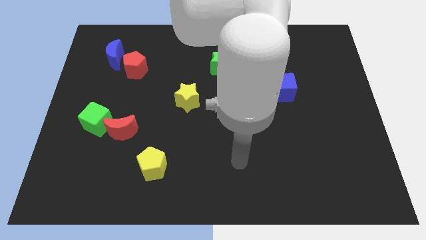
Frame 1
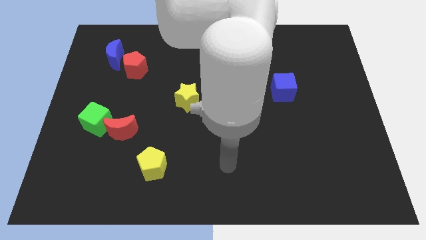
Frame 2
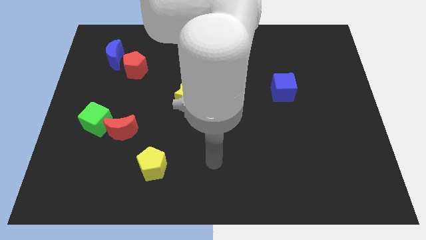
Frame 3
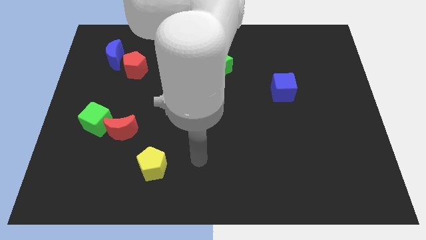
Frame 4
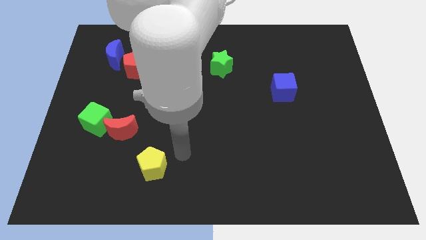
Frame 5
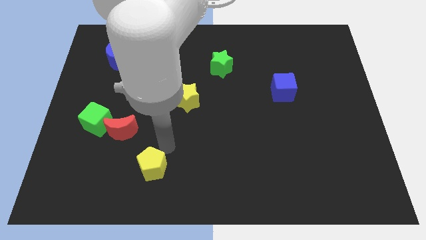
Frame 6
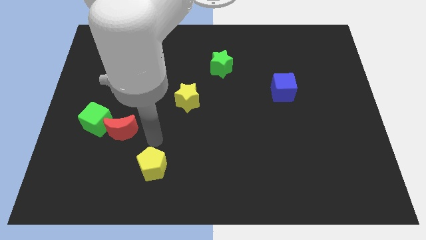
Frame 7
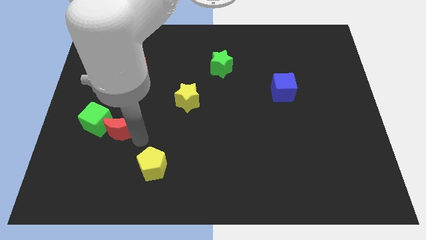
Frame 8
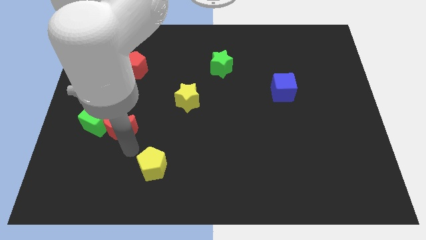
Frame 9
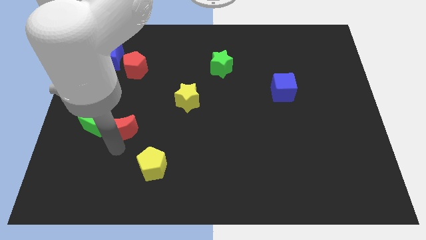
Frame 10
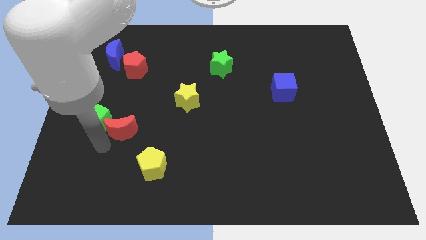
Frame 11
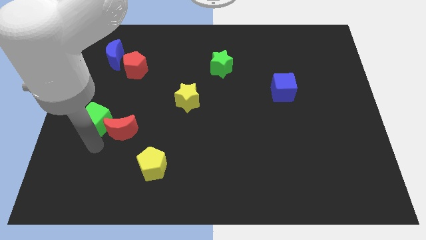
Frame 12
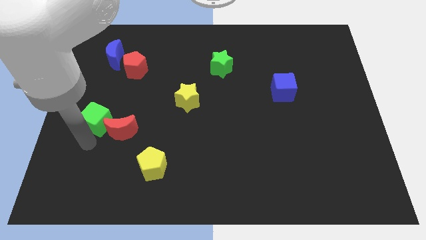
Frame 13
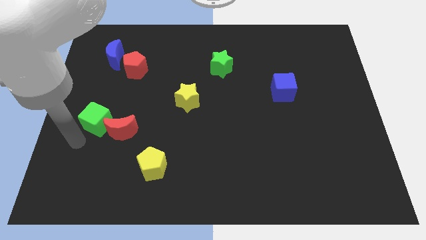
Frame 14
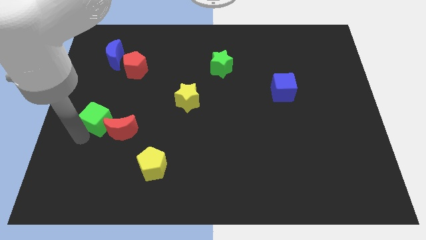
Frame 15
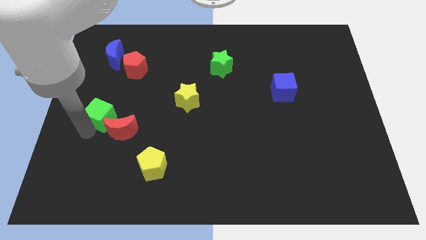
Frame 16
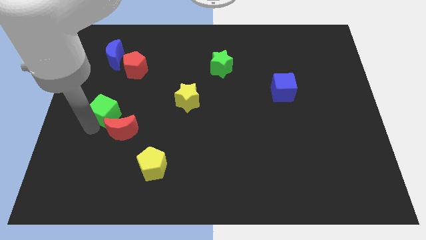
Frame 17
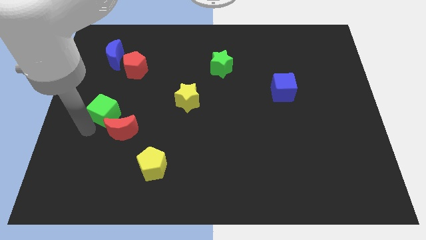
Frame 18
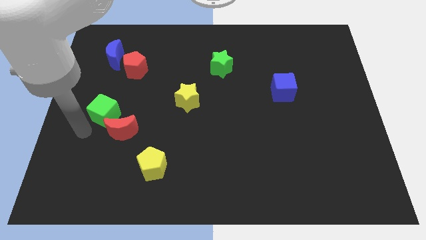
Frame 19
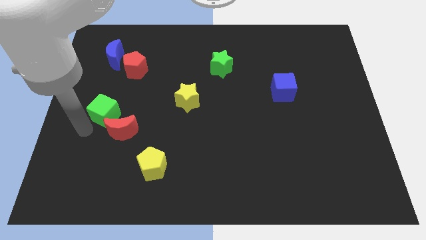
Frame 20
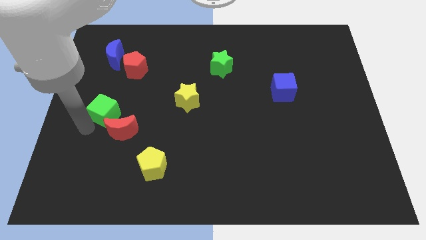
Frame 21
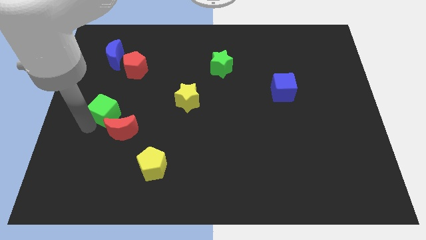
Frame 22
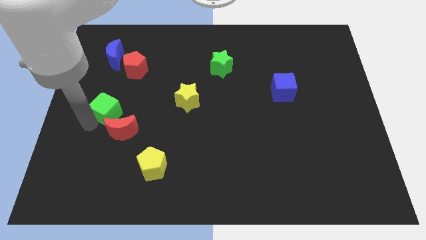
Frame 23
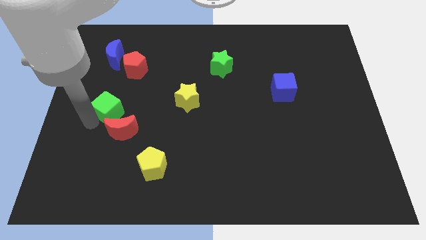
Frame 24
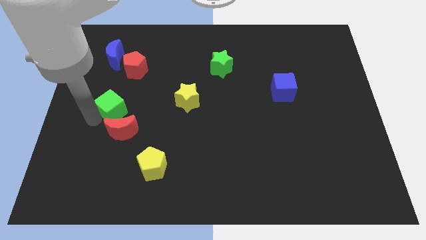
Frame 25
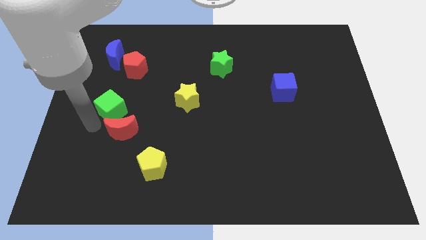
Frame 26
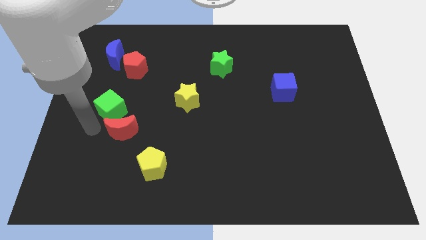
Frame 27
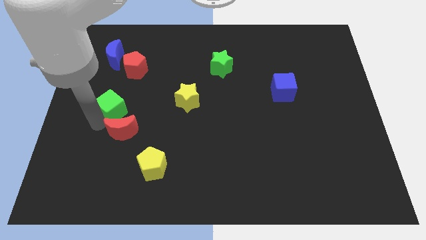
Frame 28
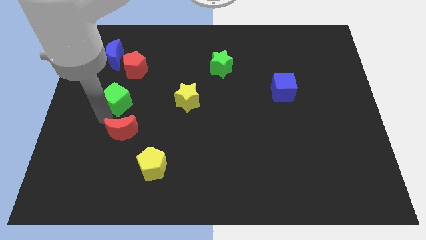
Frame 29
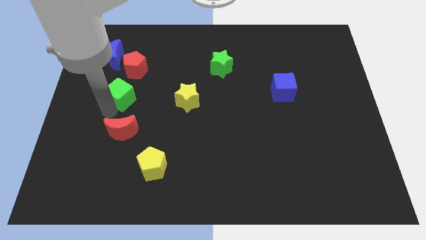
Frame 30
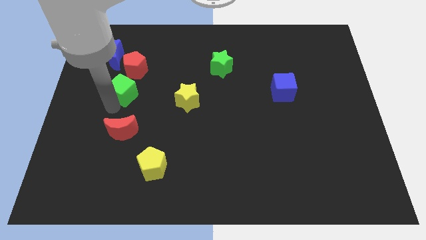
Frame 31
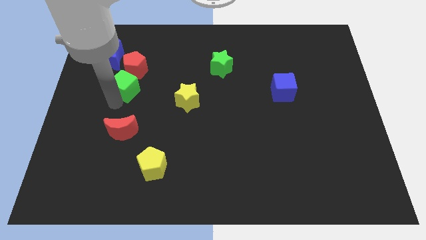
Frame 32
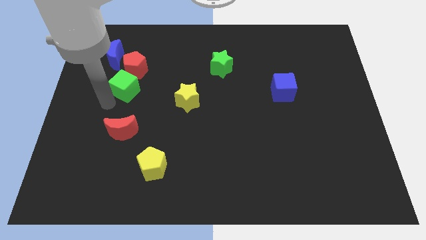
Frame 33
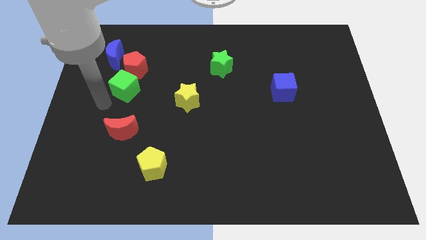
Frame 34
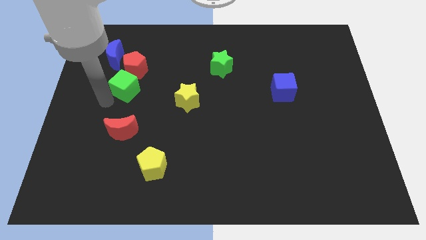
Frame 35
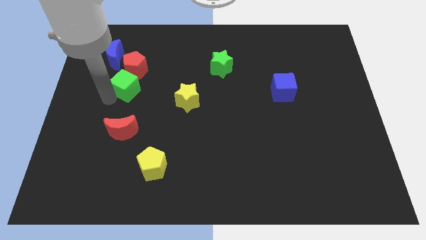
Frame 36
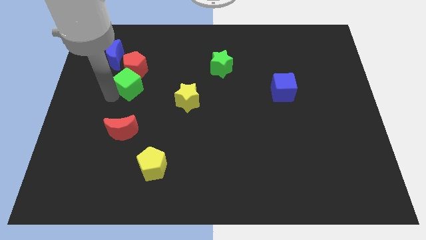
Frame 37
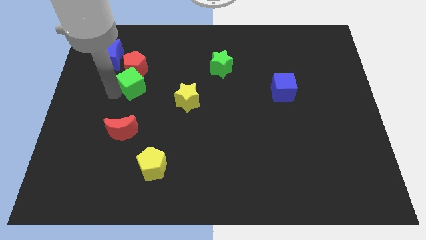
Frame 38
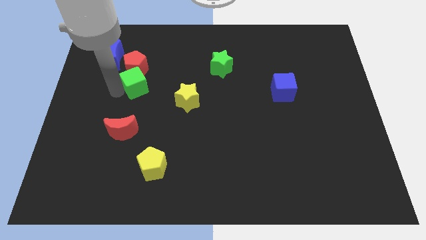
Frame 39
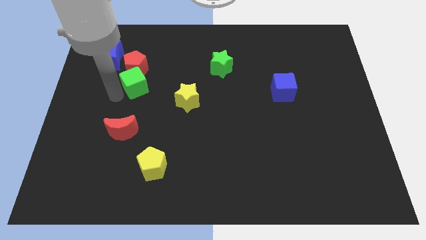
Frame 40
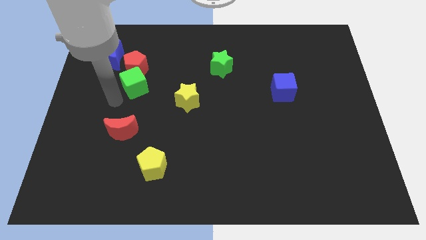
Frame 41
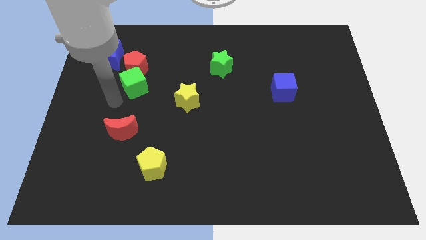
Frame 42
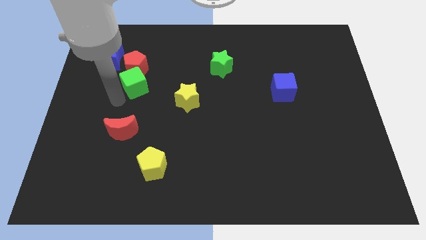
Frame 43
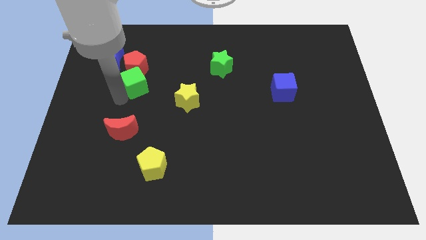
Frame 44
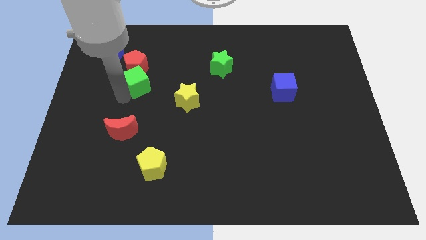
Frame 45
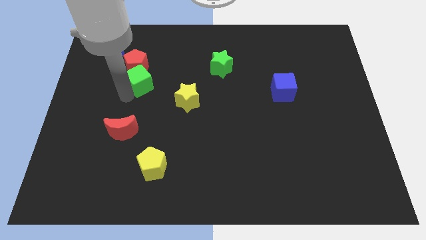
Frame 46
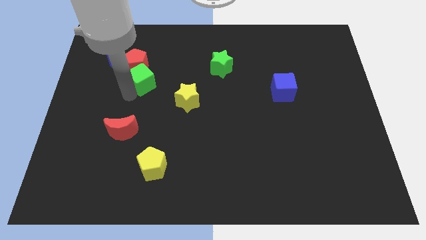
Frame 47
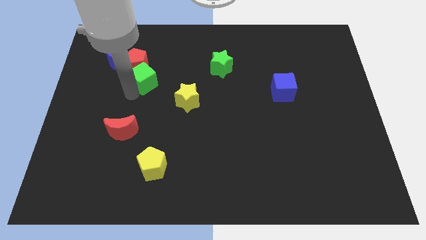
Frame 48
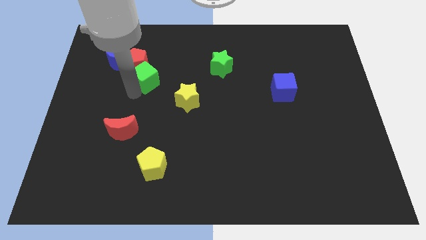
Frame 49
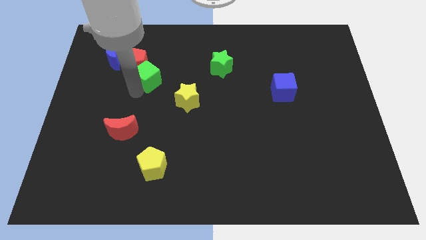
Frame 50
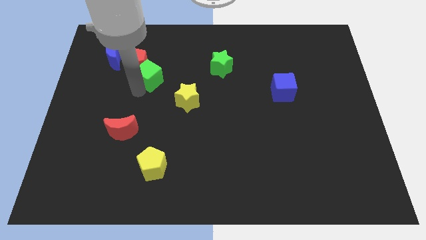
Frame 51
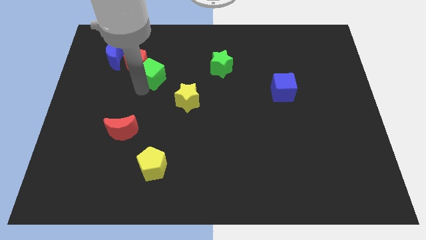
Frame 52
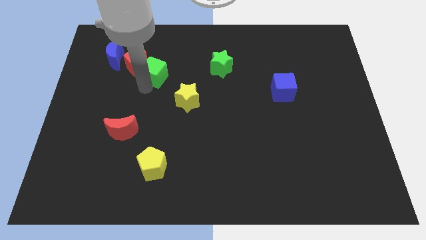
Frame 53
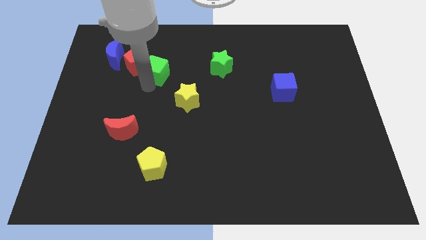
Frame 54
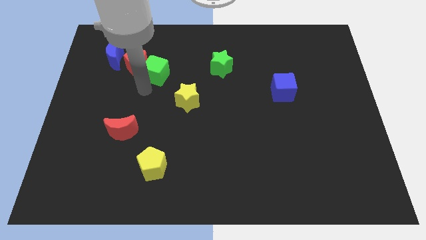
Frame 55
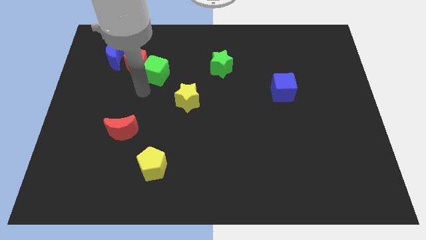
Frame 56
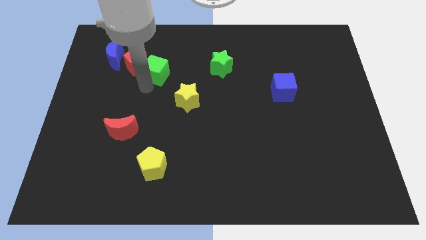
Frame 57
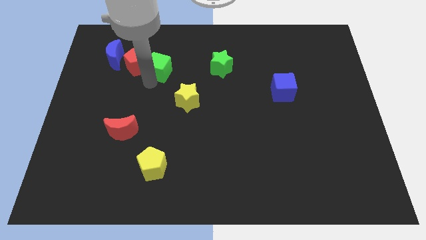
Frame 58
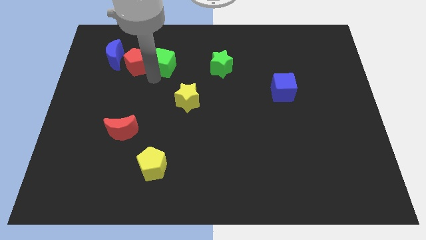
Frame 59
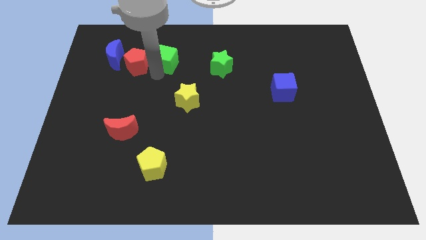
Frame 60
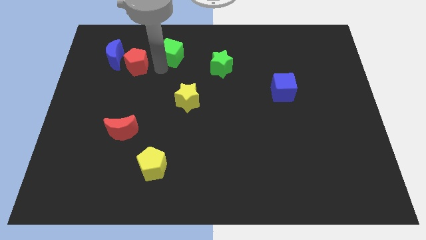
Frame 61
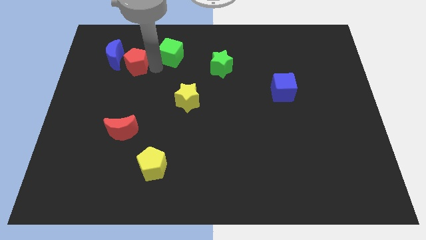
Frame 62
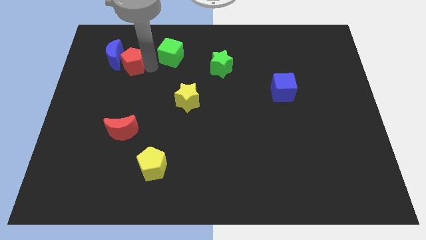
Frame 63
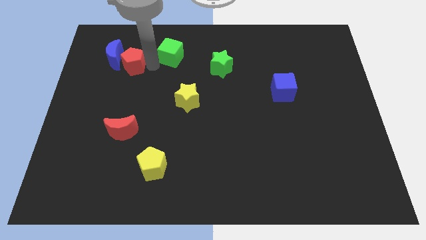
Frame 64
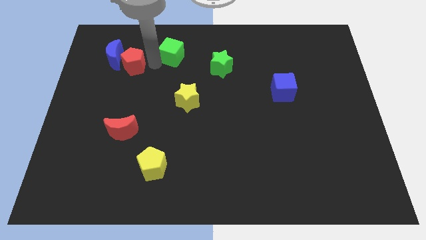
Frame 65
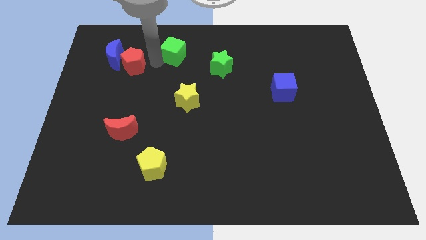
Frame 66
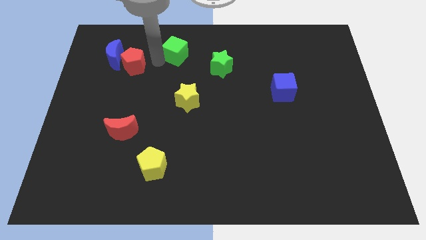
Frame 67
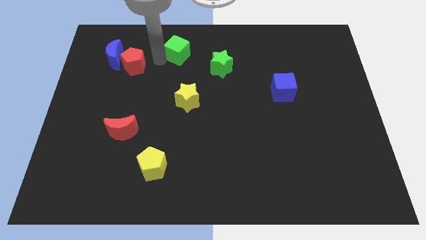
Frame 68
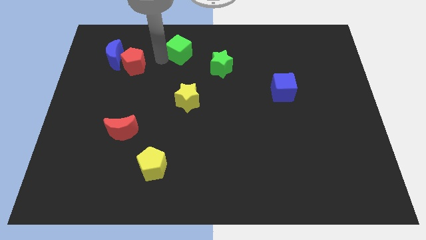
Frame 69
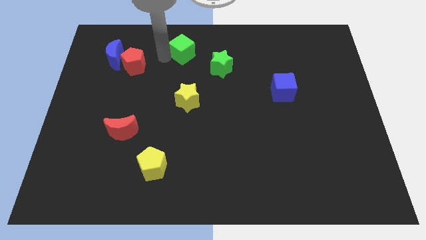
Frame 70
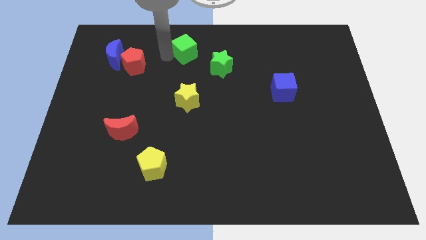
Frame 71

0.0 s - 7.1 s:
move the green cube to the top

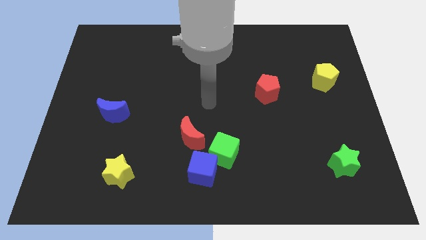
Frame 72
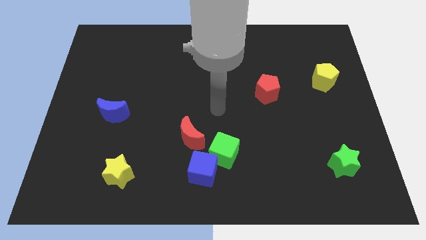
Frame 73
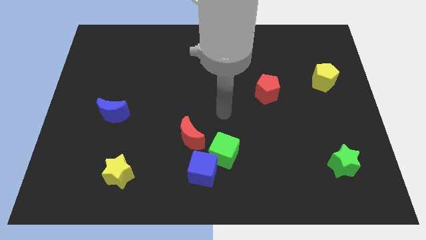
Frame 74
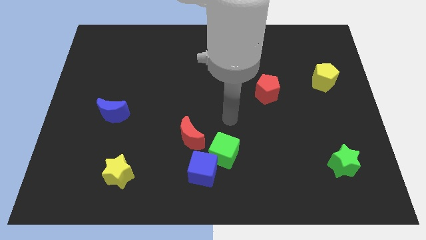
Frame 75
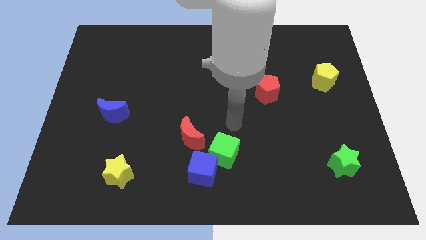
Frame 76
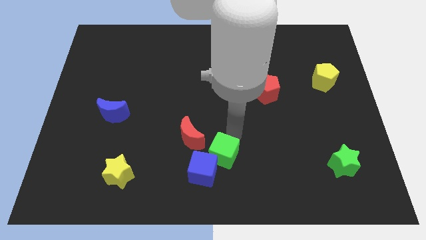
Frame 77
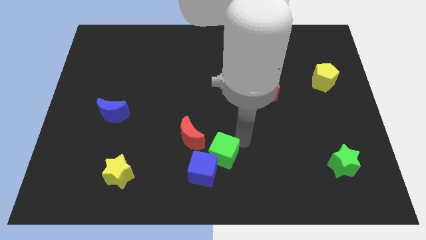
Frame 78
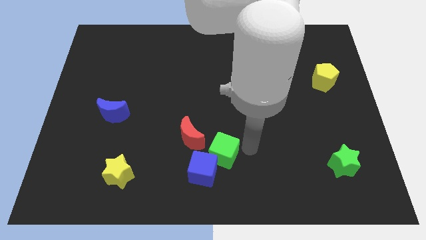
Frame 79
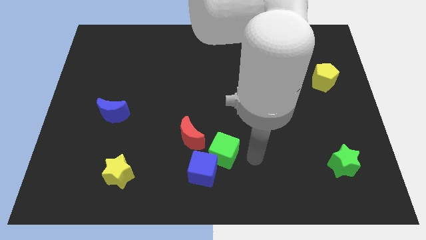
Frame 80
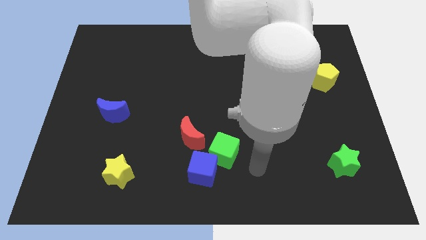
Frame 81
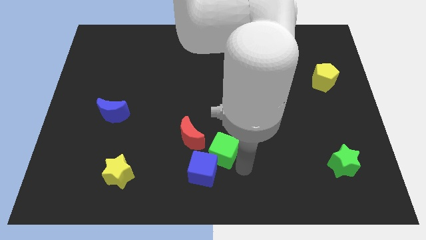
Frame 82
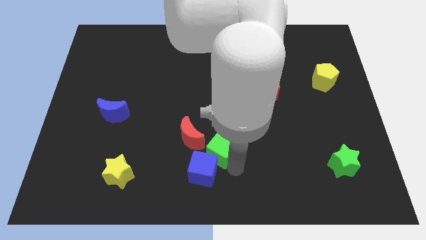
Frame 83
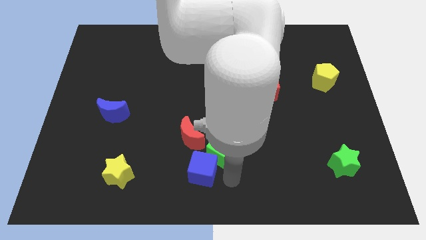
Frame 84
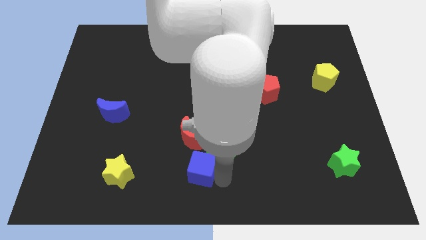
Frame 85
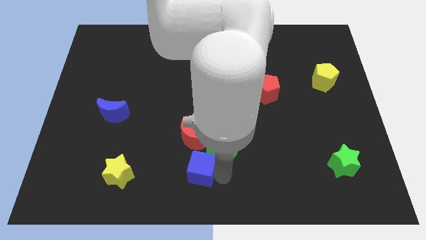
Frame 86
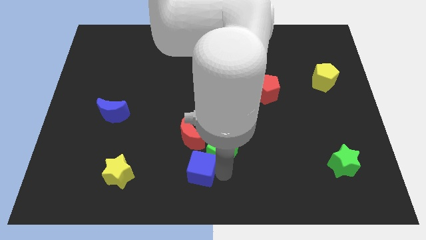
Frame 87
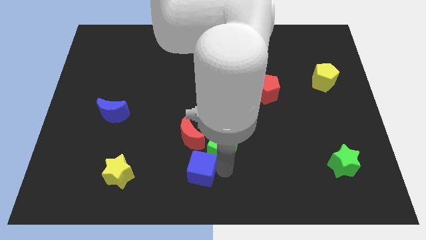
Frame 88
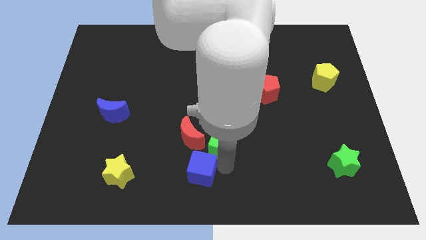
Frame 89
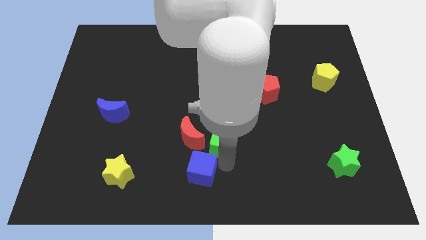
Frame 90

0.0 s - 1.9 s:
put the green cube to the center
